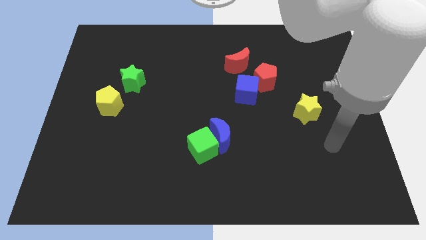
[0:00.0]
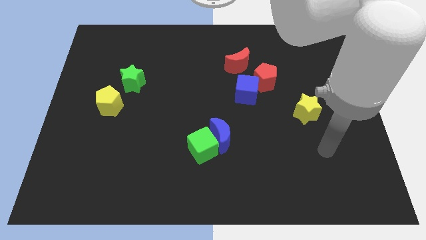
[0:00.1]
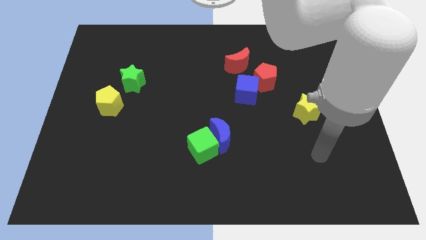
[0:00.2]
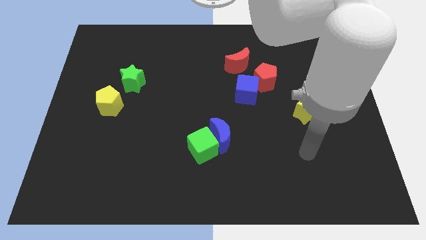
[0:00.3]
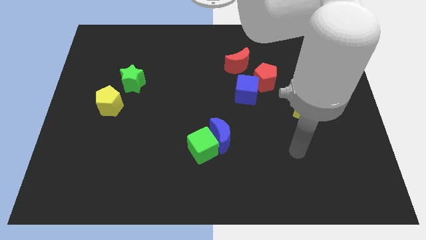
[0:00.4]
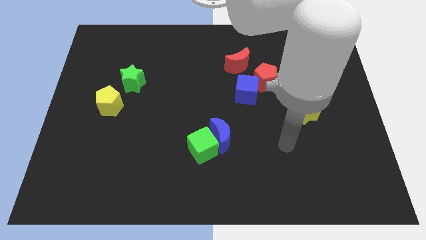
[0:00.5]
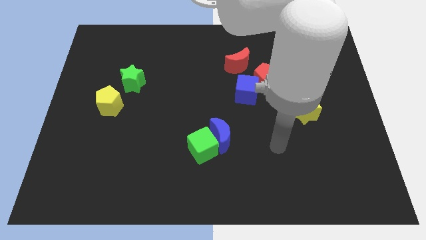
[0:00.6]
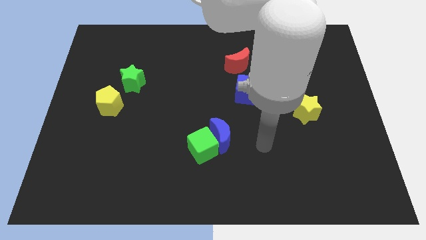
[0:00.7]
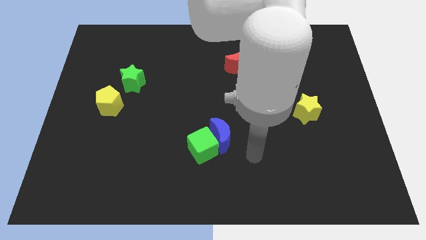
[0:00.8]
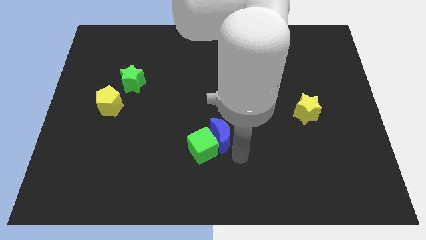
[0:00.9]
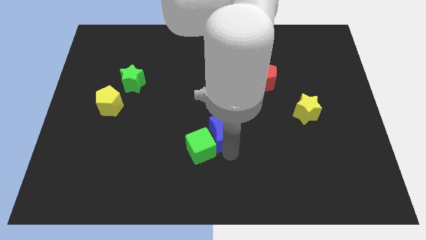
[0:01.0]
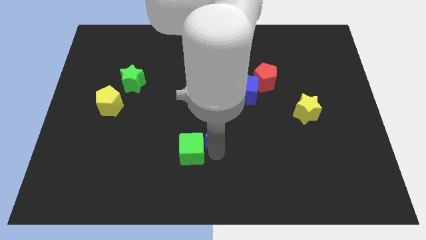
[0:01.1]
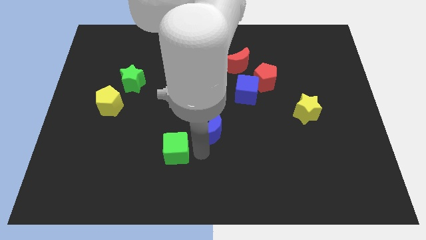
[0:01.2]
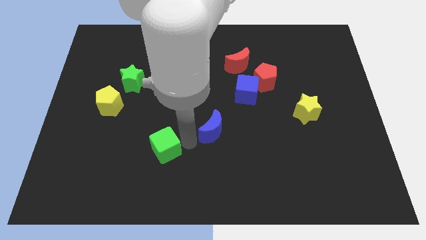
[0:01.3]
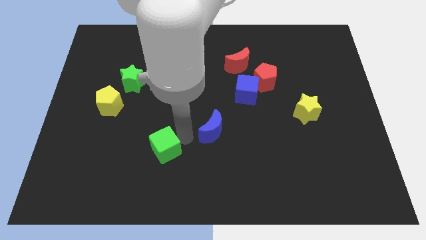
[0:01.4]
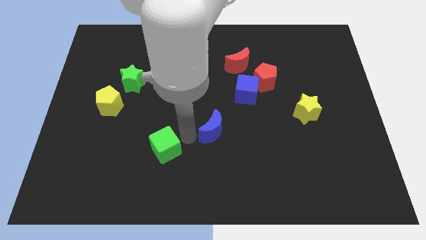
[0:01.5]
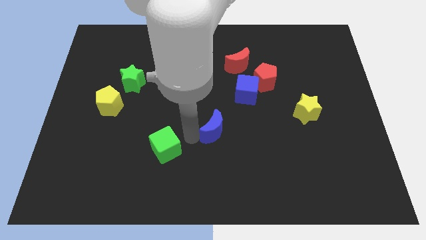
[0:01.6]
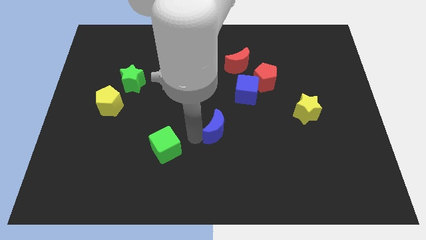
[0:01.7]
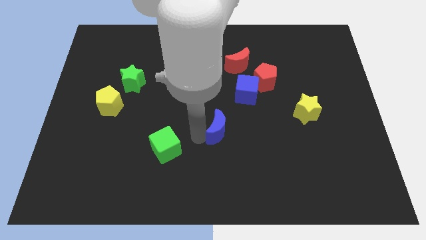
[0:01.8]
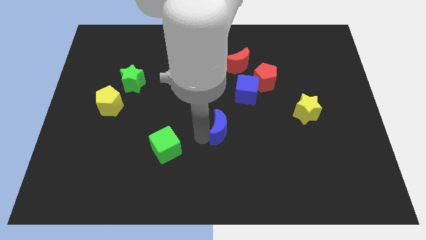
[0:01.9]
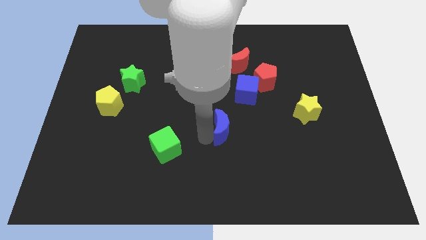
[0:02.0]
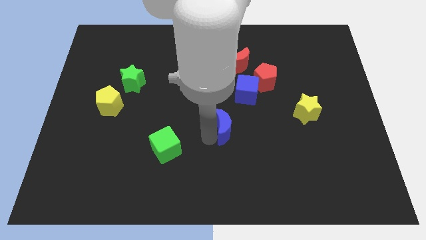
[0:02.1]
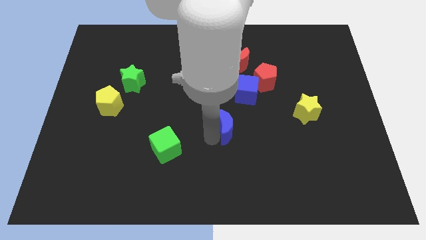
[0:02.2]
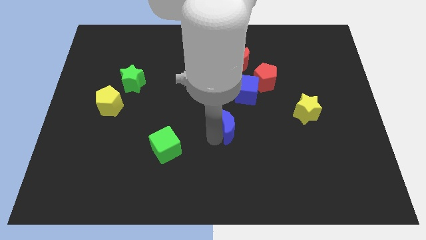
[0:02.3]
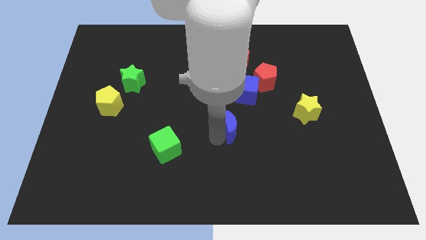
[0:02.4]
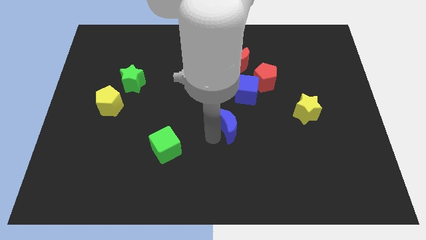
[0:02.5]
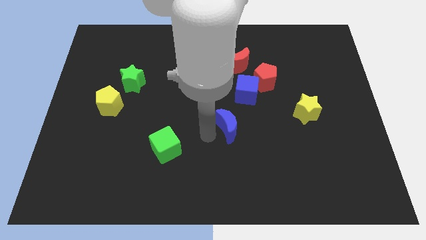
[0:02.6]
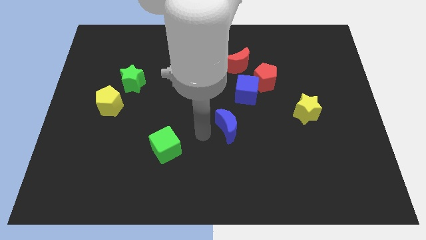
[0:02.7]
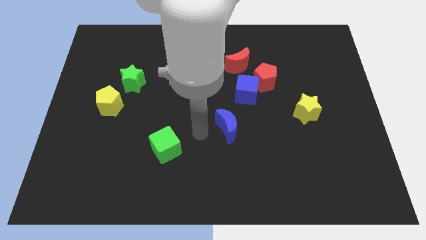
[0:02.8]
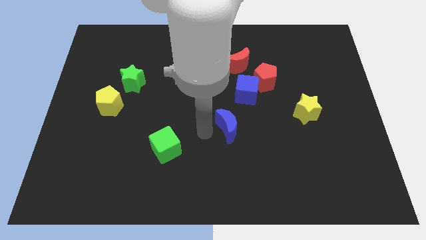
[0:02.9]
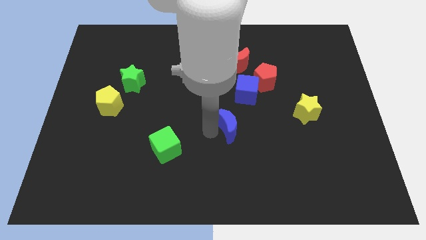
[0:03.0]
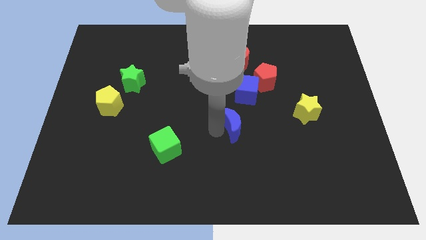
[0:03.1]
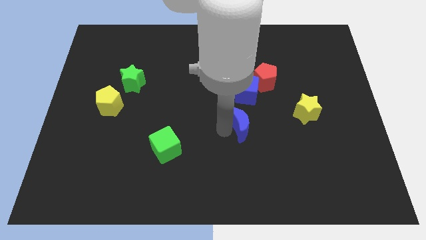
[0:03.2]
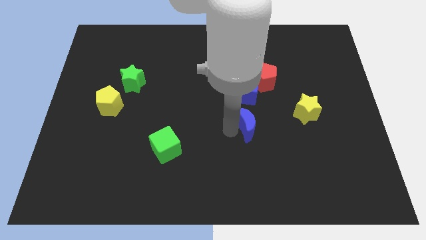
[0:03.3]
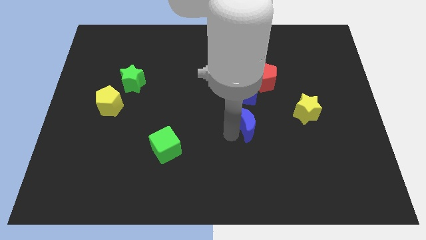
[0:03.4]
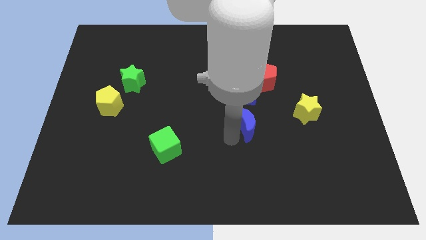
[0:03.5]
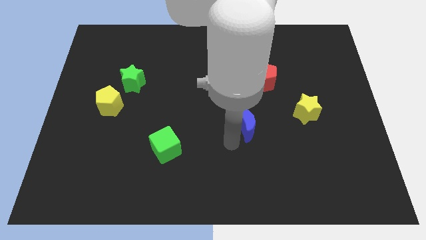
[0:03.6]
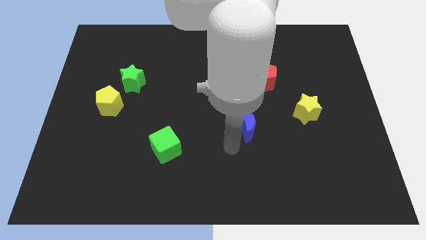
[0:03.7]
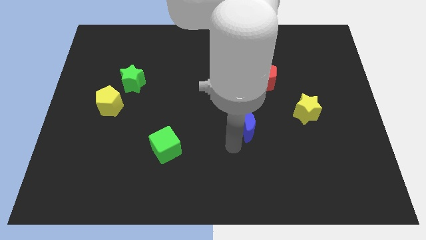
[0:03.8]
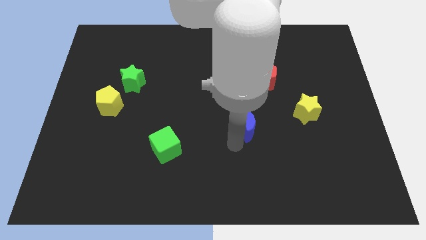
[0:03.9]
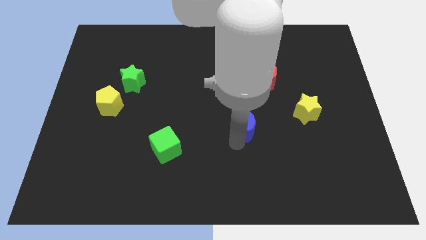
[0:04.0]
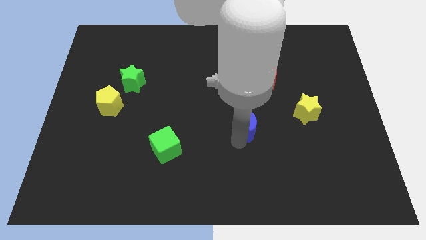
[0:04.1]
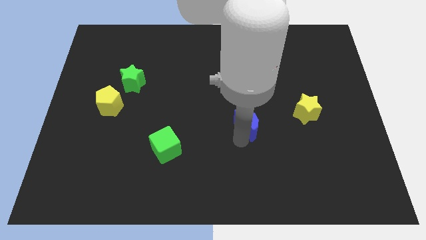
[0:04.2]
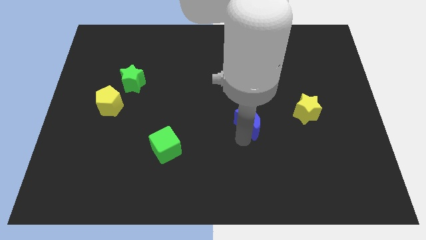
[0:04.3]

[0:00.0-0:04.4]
push the blue moon diagonally up and to the right slightly

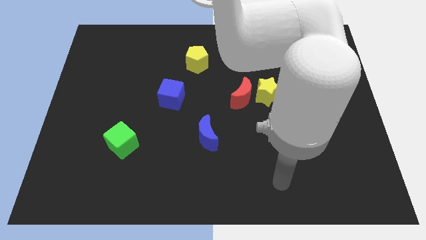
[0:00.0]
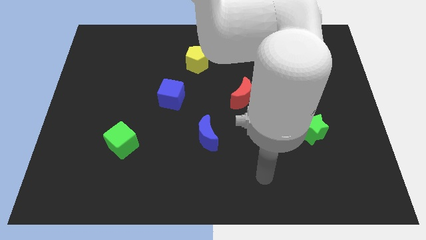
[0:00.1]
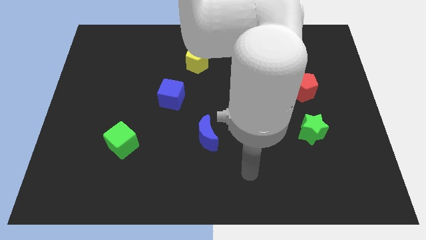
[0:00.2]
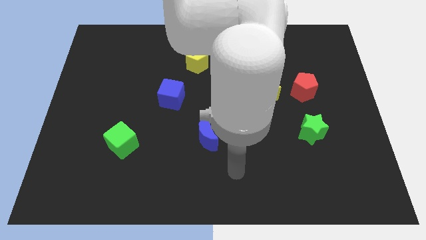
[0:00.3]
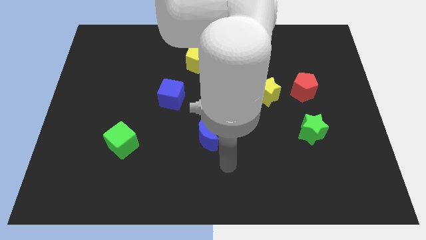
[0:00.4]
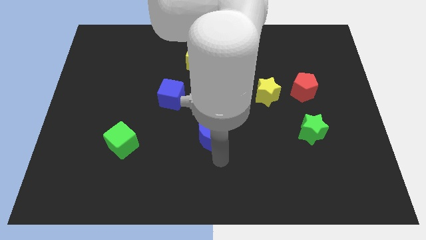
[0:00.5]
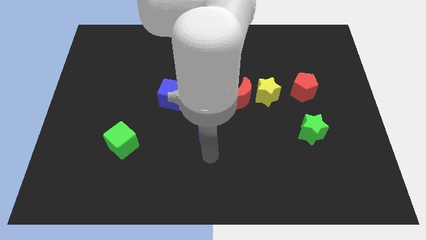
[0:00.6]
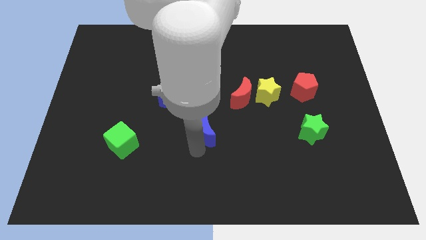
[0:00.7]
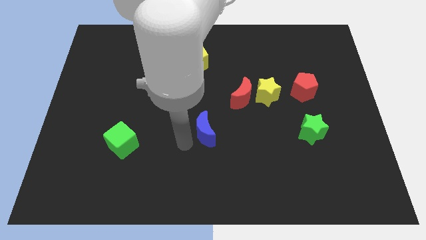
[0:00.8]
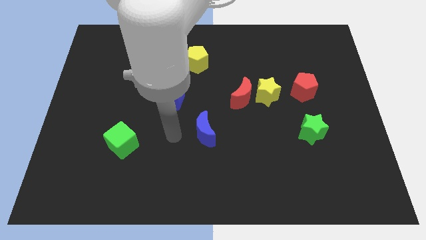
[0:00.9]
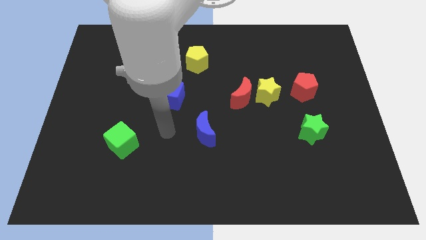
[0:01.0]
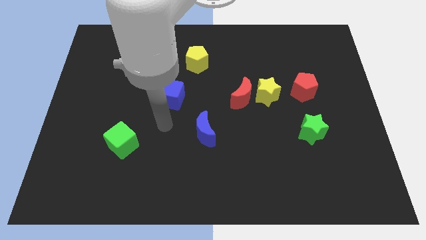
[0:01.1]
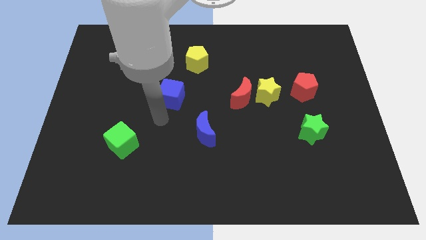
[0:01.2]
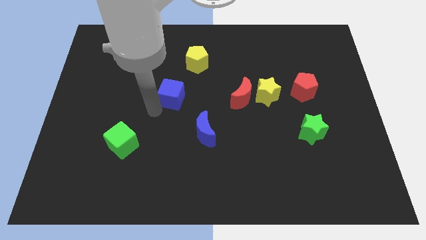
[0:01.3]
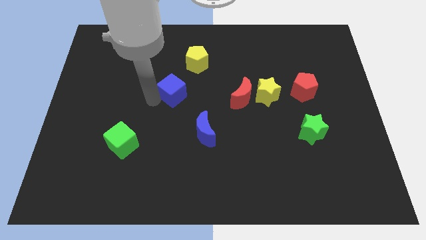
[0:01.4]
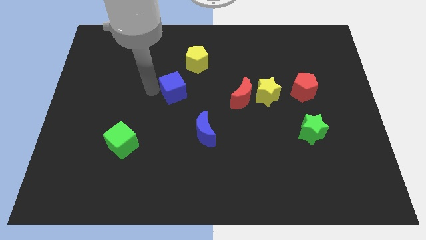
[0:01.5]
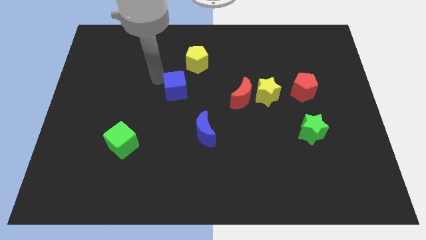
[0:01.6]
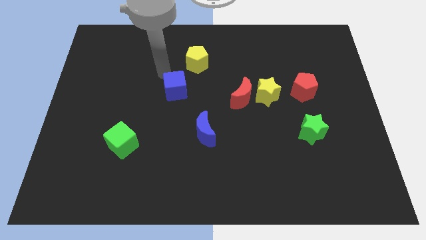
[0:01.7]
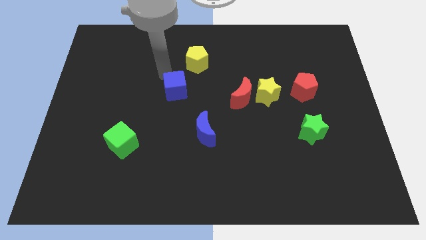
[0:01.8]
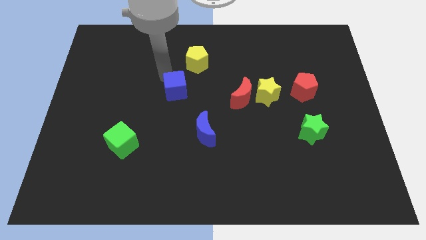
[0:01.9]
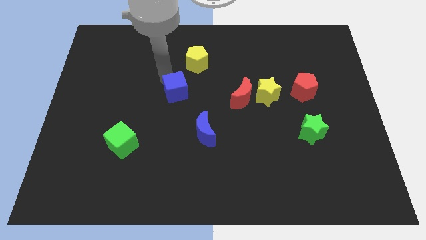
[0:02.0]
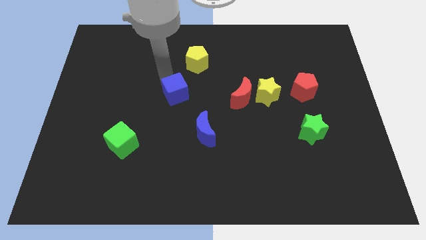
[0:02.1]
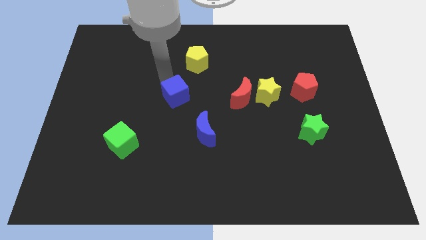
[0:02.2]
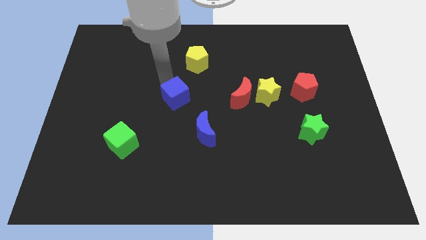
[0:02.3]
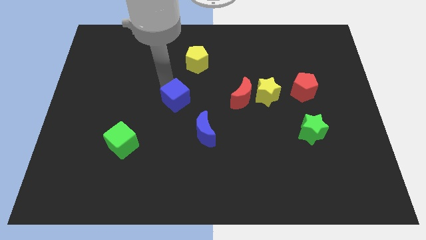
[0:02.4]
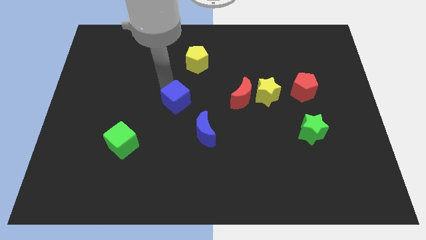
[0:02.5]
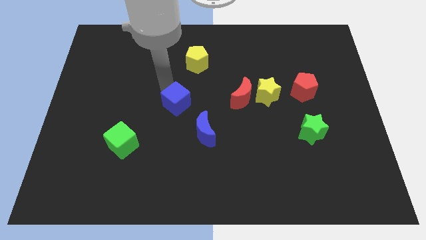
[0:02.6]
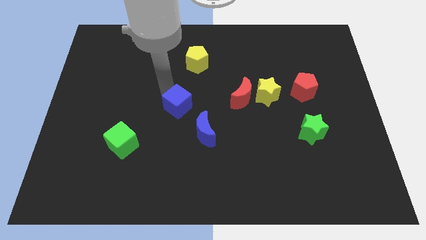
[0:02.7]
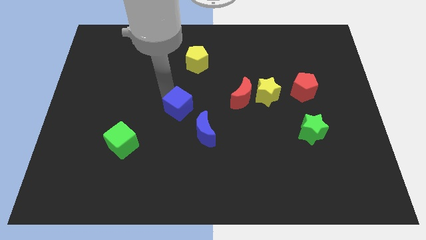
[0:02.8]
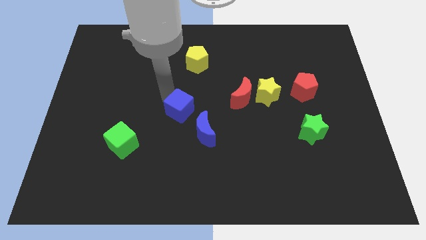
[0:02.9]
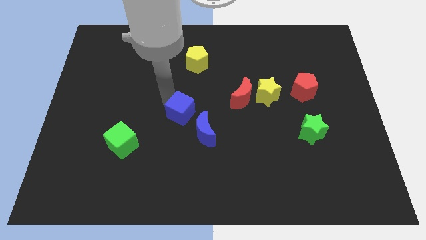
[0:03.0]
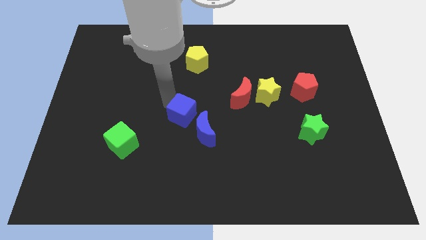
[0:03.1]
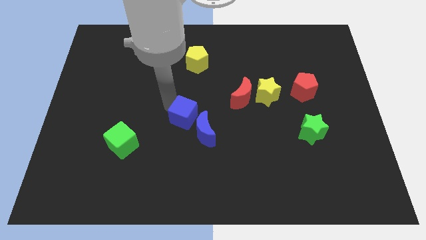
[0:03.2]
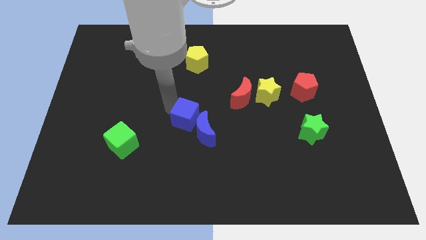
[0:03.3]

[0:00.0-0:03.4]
slide the blue cube downwards and right diagonally a little

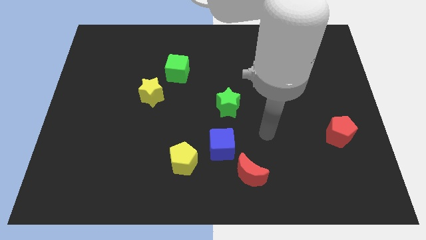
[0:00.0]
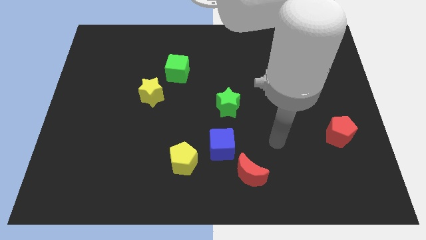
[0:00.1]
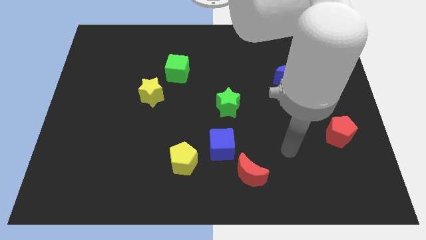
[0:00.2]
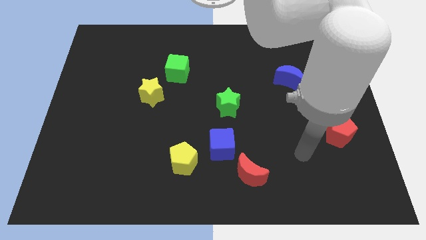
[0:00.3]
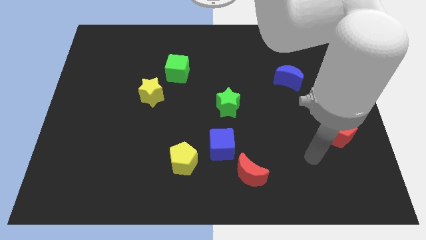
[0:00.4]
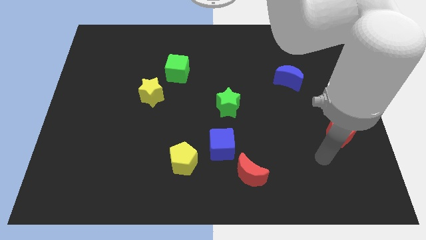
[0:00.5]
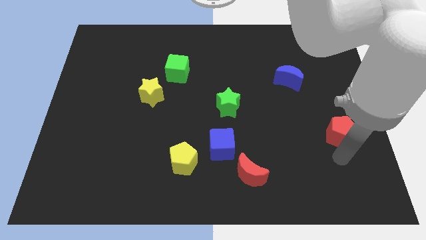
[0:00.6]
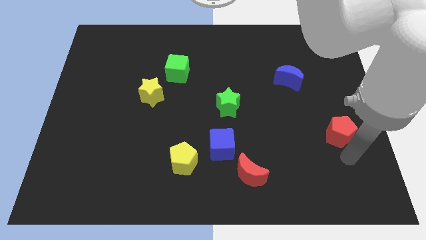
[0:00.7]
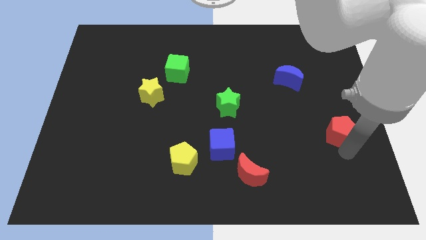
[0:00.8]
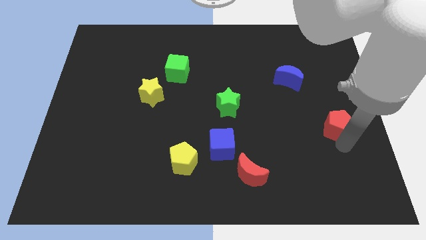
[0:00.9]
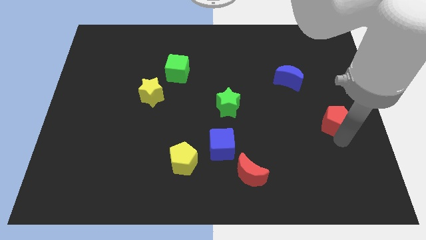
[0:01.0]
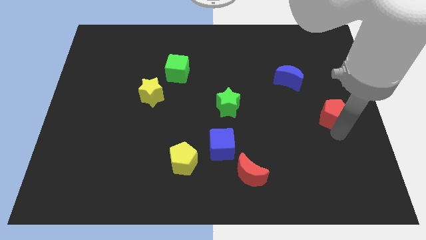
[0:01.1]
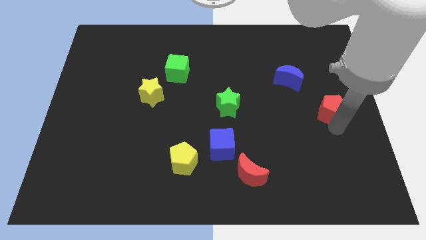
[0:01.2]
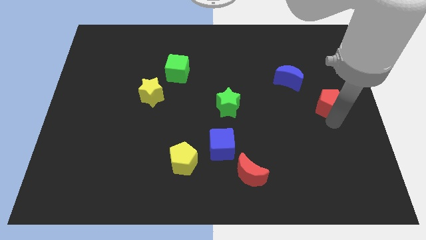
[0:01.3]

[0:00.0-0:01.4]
push the red pentagon a bit upwards
